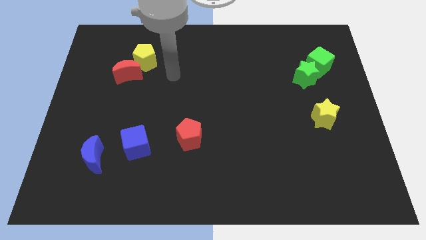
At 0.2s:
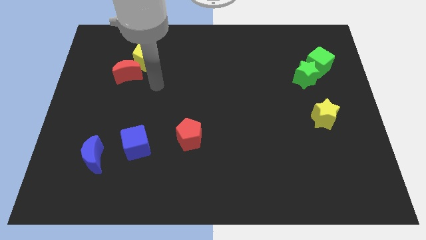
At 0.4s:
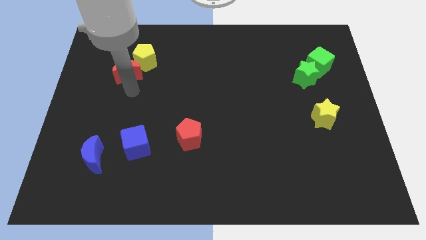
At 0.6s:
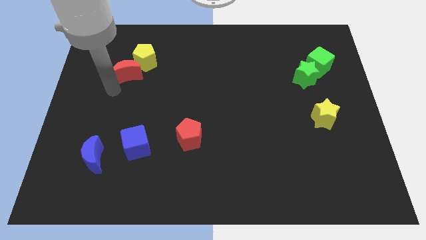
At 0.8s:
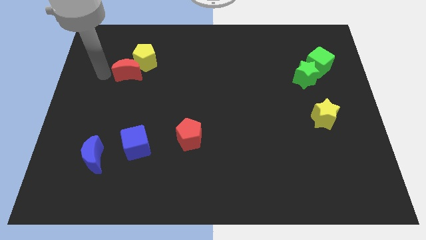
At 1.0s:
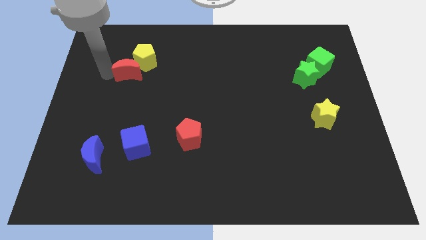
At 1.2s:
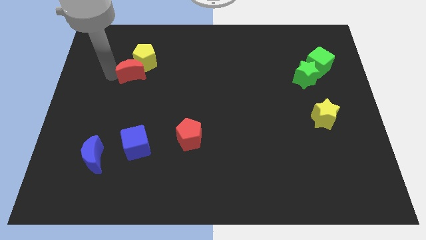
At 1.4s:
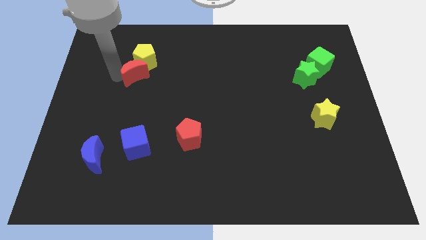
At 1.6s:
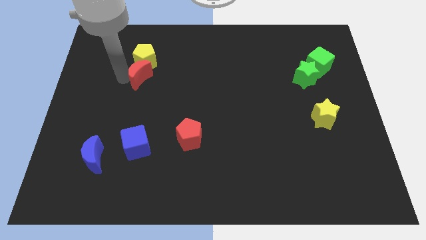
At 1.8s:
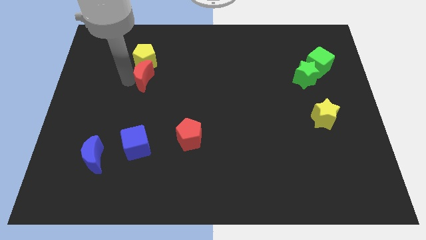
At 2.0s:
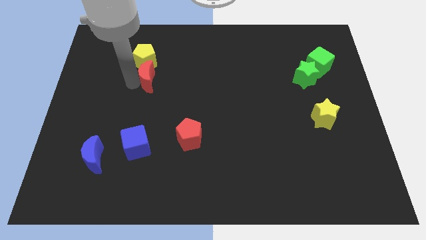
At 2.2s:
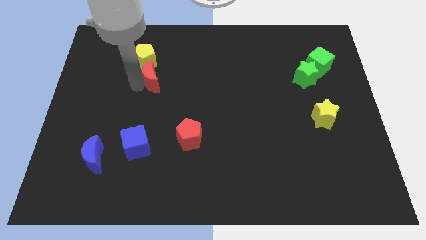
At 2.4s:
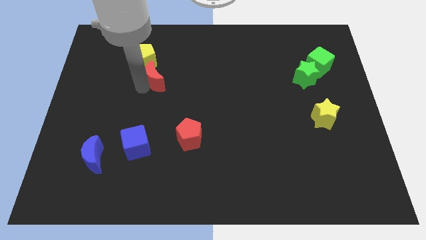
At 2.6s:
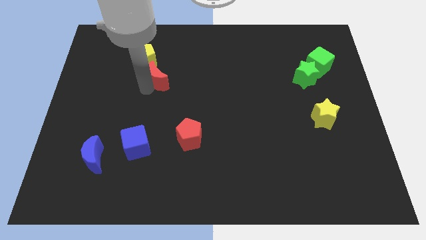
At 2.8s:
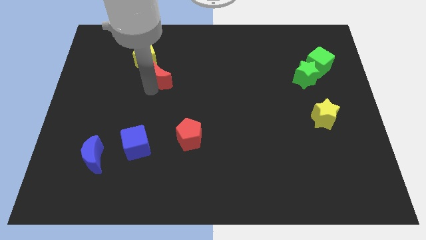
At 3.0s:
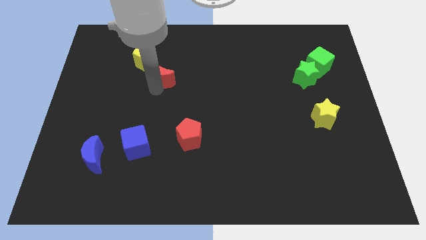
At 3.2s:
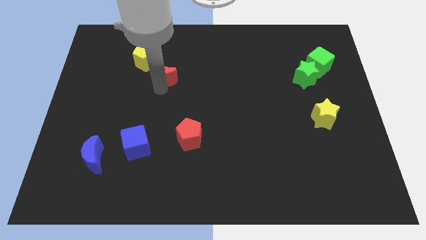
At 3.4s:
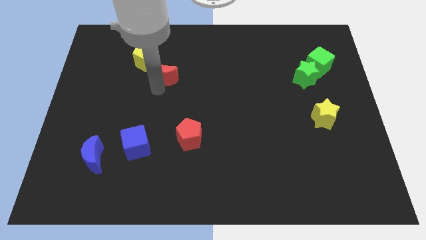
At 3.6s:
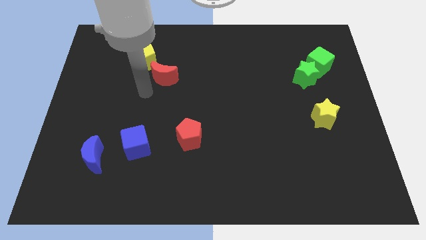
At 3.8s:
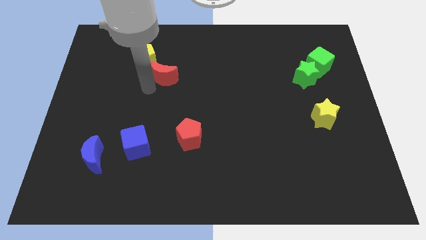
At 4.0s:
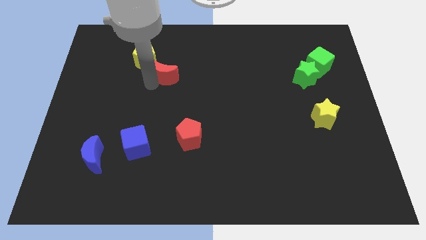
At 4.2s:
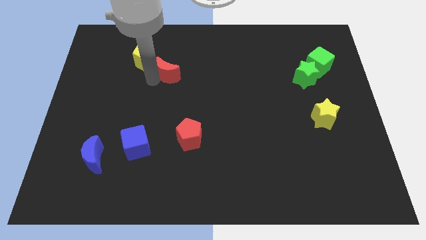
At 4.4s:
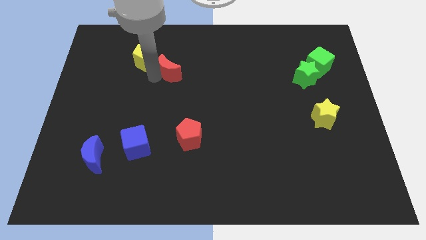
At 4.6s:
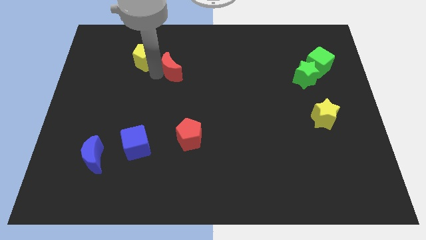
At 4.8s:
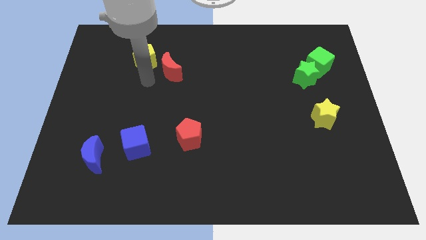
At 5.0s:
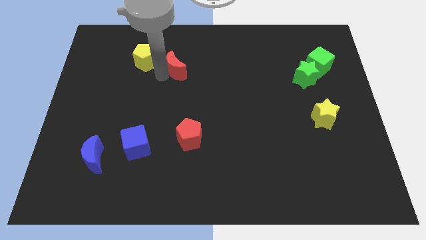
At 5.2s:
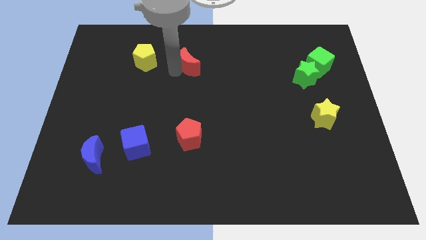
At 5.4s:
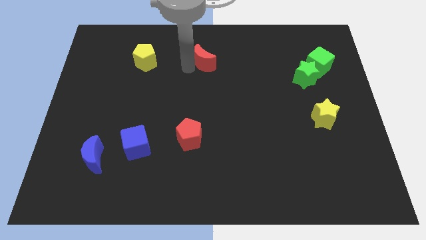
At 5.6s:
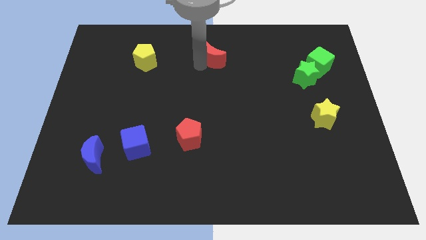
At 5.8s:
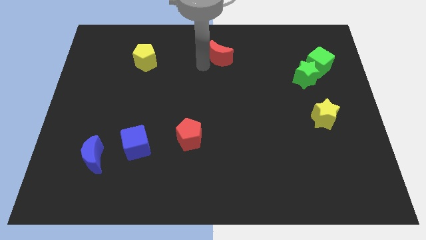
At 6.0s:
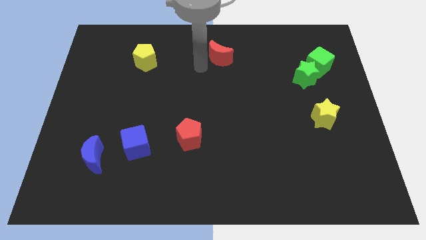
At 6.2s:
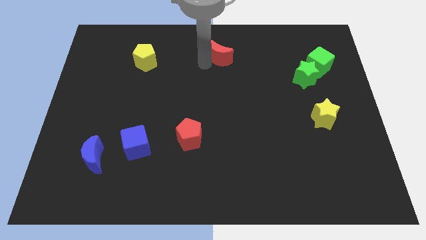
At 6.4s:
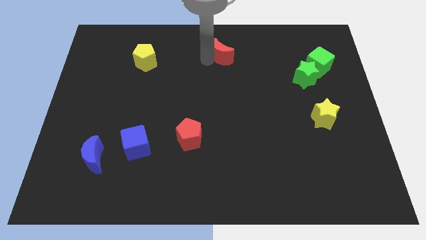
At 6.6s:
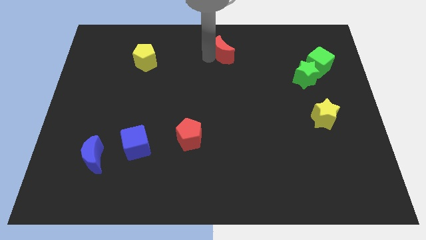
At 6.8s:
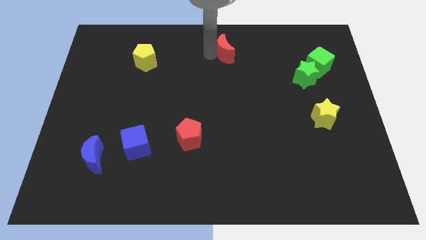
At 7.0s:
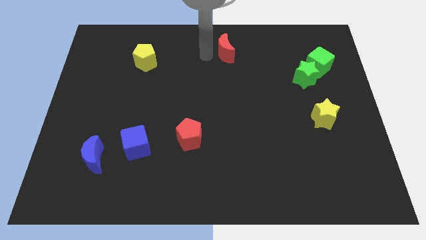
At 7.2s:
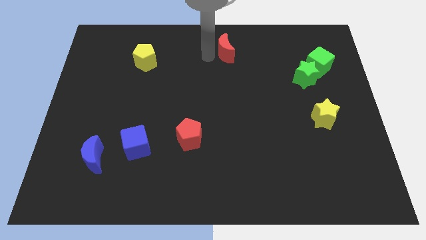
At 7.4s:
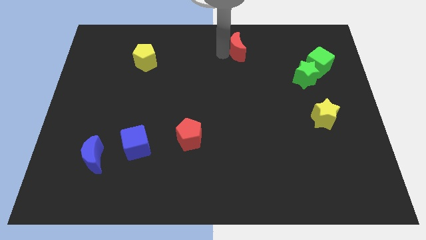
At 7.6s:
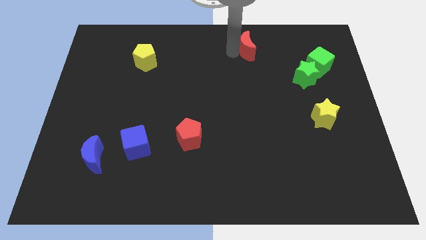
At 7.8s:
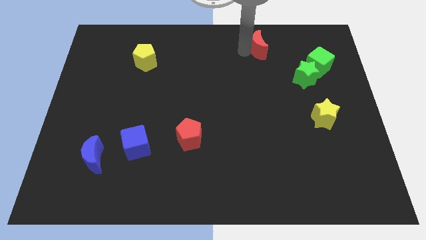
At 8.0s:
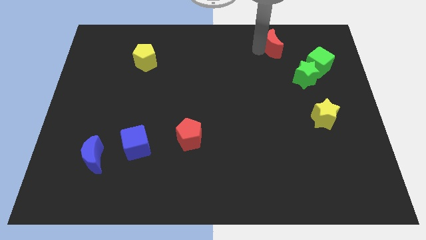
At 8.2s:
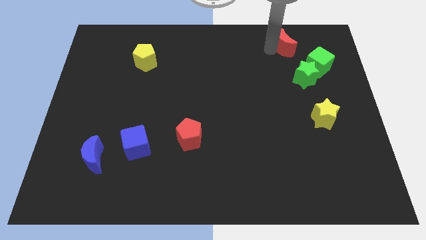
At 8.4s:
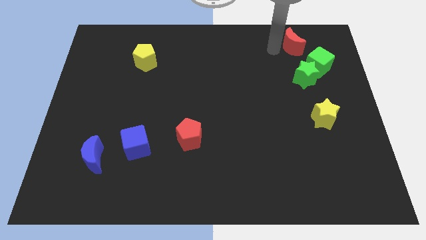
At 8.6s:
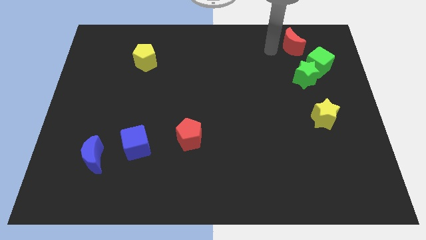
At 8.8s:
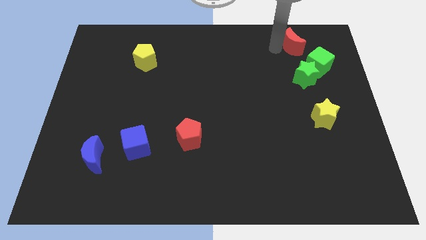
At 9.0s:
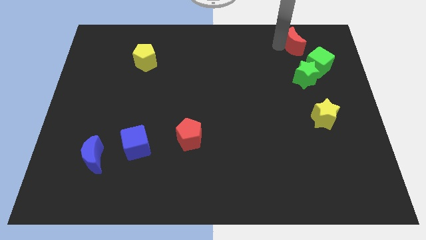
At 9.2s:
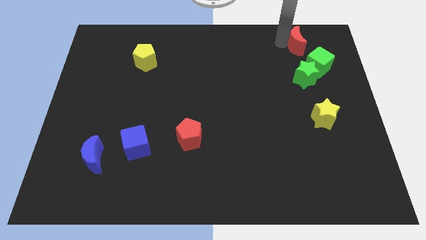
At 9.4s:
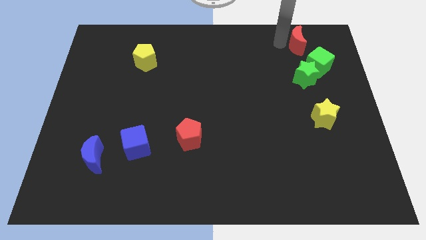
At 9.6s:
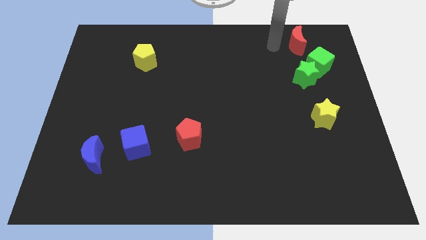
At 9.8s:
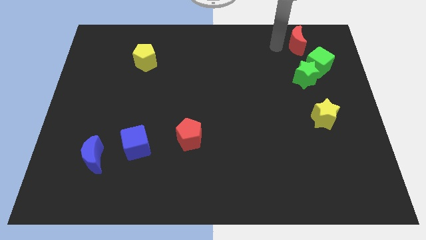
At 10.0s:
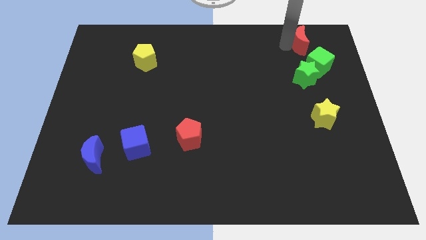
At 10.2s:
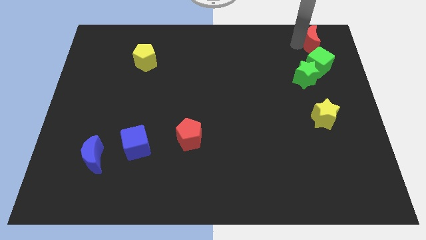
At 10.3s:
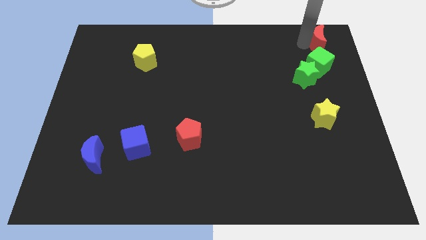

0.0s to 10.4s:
put the red moon to the upper right corner
